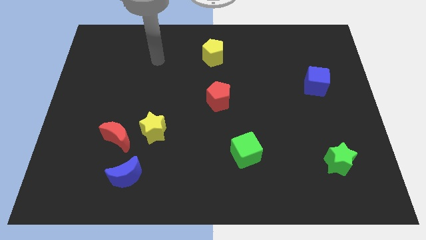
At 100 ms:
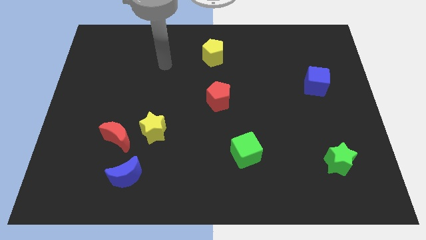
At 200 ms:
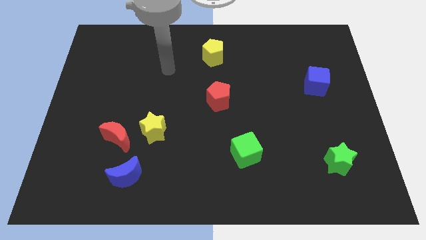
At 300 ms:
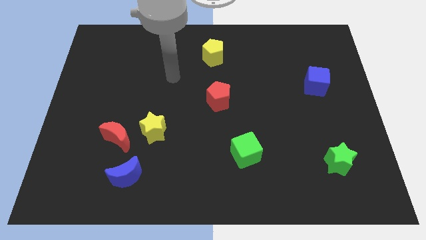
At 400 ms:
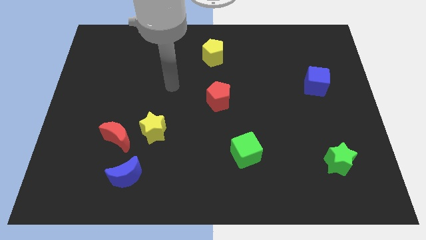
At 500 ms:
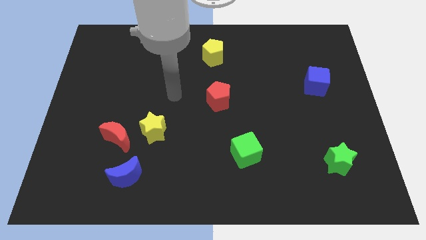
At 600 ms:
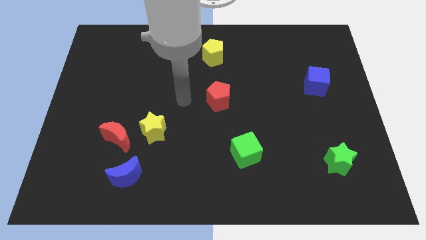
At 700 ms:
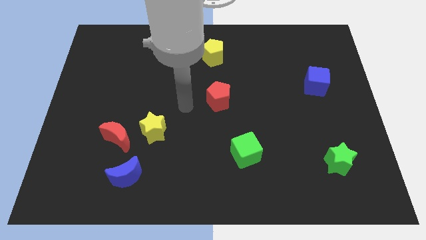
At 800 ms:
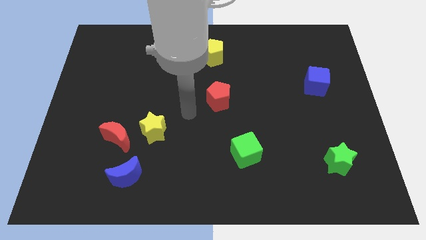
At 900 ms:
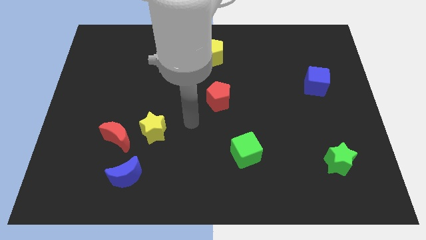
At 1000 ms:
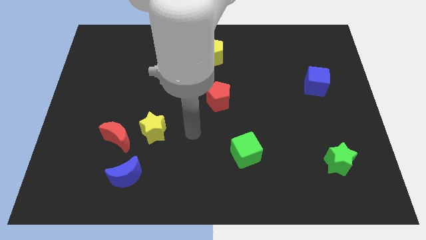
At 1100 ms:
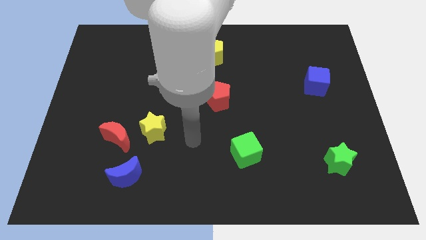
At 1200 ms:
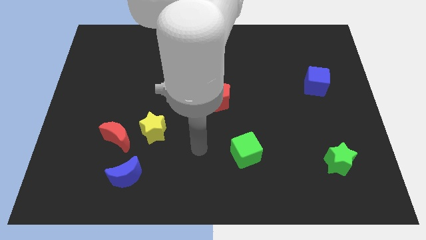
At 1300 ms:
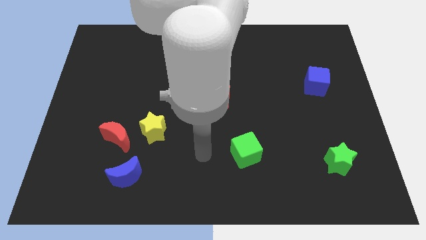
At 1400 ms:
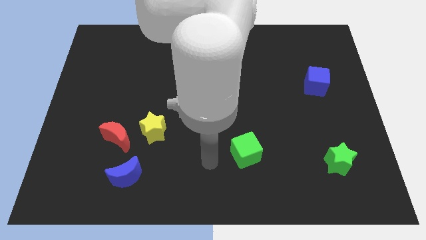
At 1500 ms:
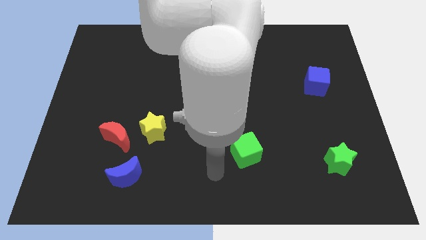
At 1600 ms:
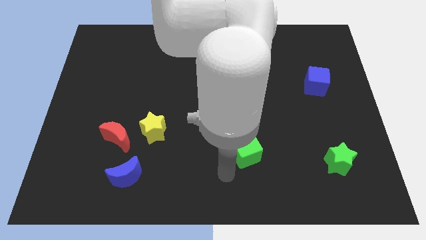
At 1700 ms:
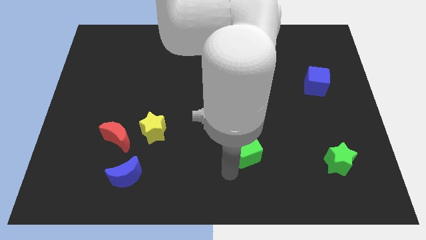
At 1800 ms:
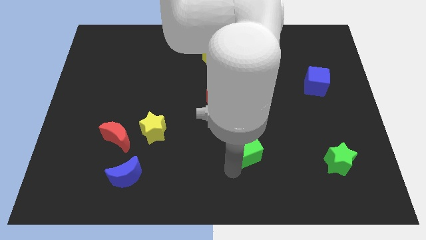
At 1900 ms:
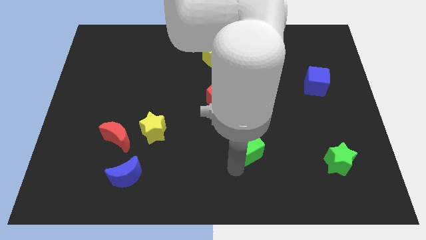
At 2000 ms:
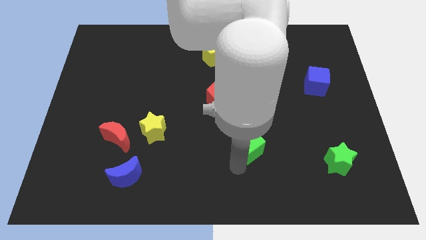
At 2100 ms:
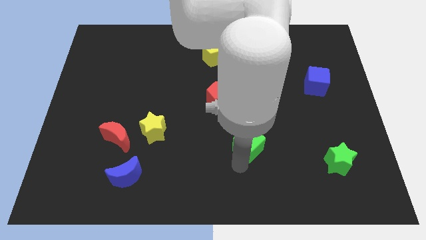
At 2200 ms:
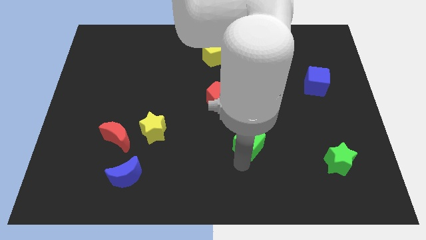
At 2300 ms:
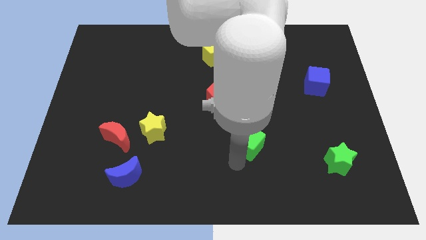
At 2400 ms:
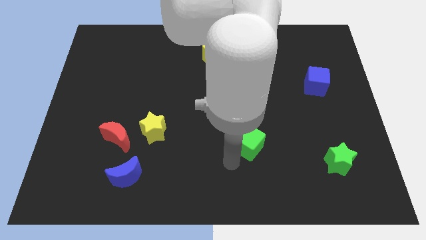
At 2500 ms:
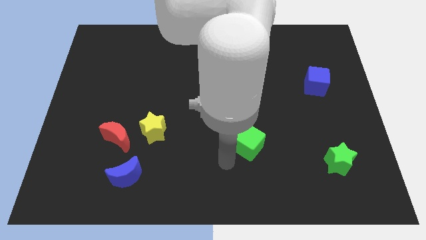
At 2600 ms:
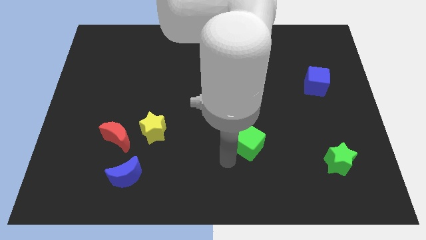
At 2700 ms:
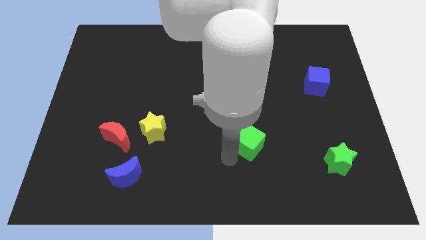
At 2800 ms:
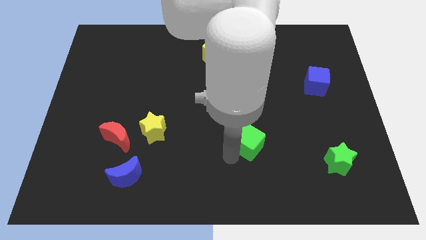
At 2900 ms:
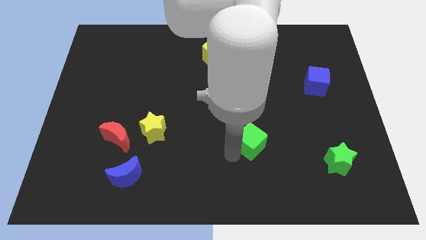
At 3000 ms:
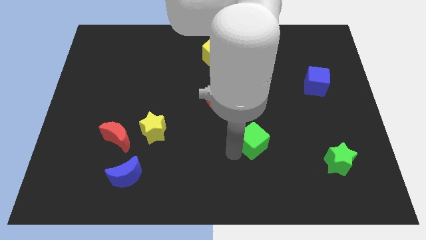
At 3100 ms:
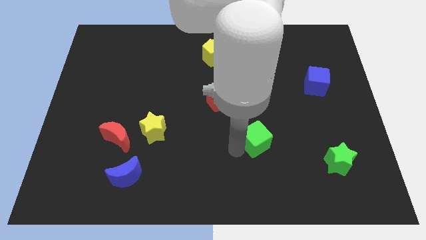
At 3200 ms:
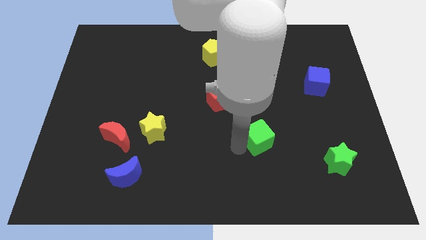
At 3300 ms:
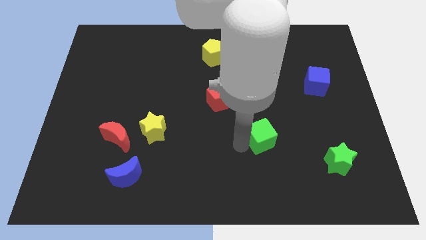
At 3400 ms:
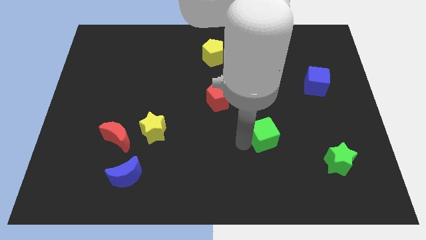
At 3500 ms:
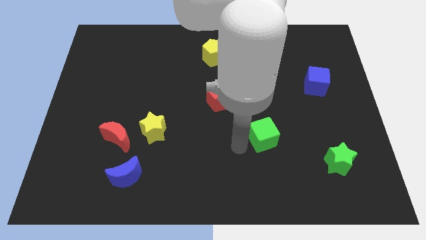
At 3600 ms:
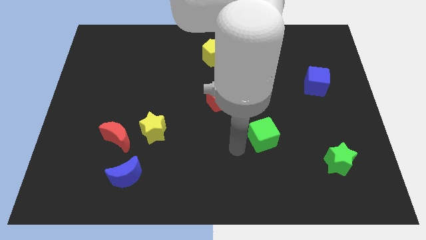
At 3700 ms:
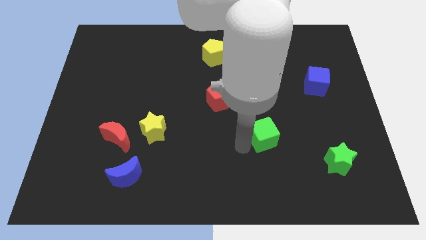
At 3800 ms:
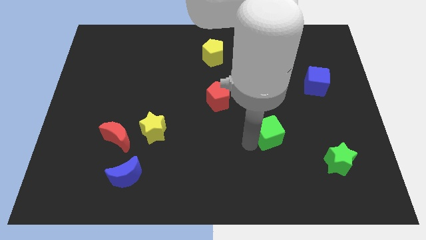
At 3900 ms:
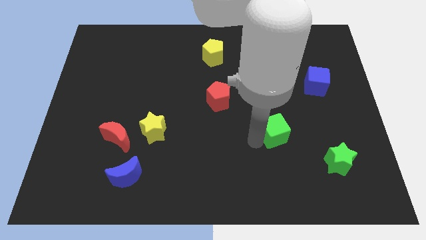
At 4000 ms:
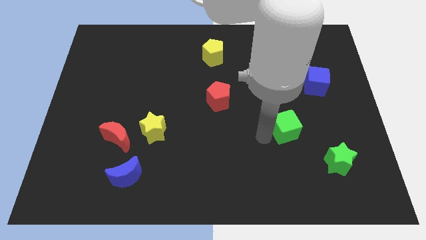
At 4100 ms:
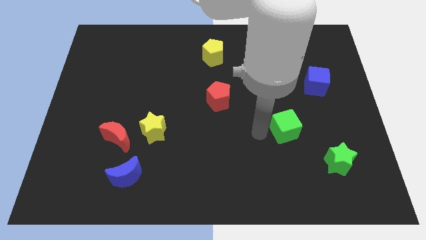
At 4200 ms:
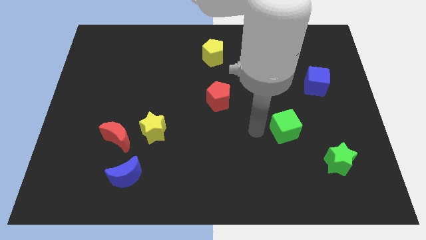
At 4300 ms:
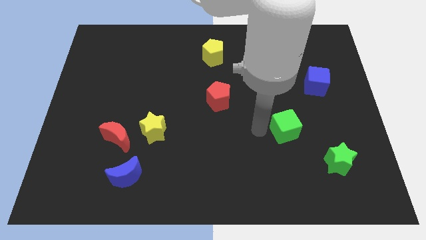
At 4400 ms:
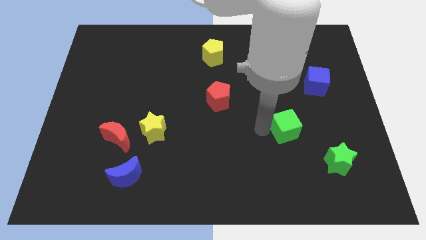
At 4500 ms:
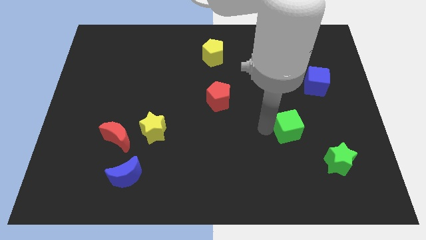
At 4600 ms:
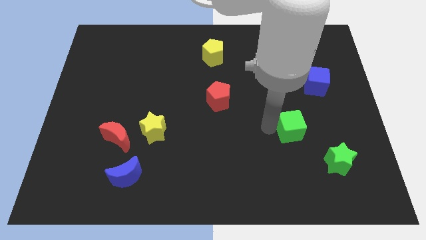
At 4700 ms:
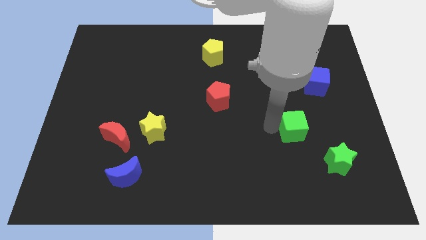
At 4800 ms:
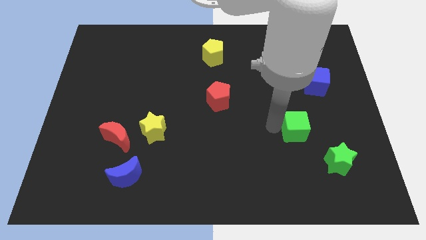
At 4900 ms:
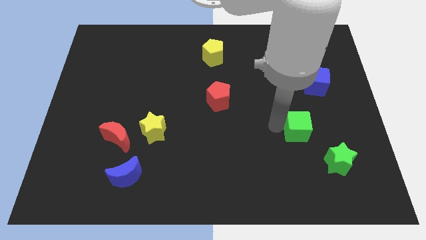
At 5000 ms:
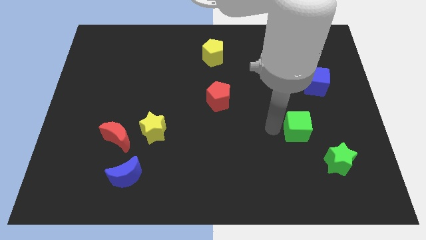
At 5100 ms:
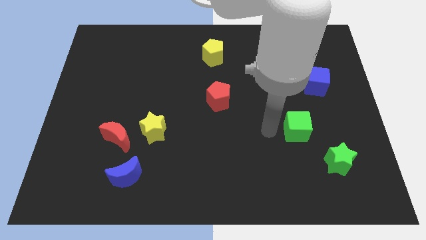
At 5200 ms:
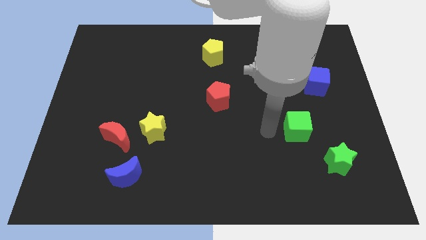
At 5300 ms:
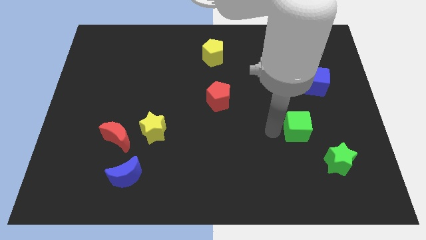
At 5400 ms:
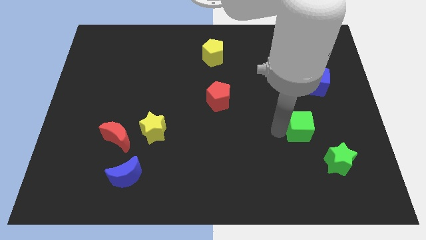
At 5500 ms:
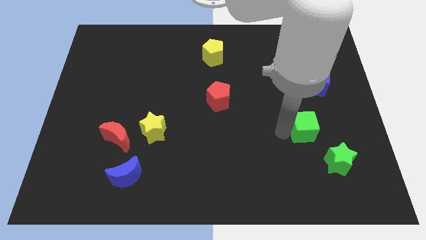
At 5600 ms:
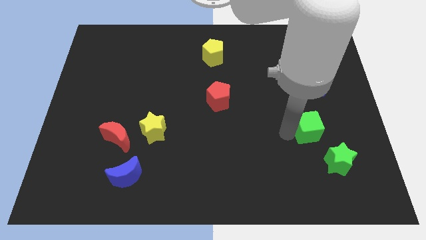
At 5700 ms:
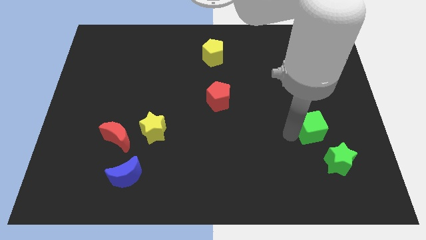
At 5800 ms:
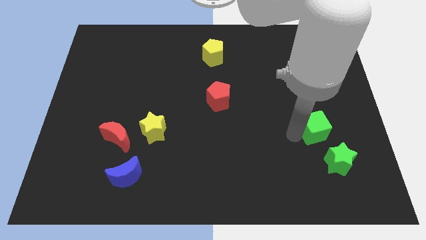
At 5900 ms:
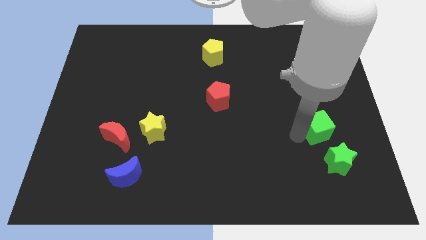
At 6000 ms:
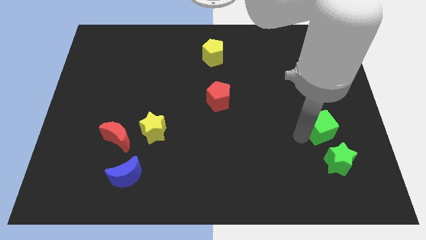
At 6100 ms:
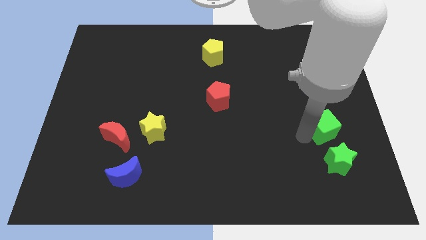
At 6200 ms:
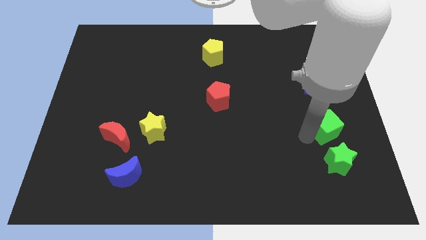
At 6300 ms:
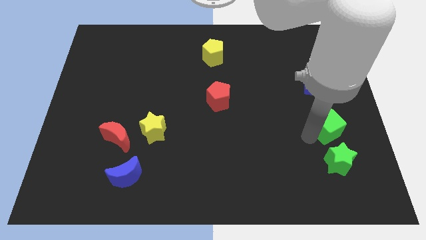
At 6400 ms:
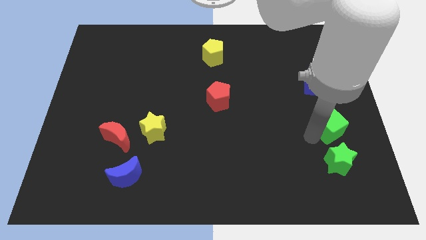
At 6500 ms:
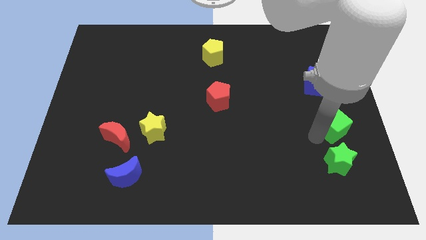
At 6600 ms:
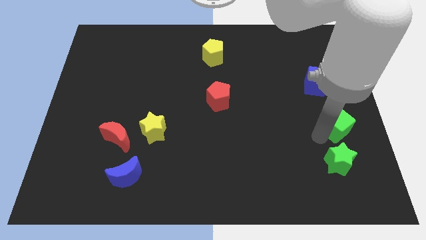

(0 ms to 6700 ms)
move the green cube to the center right
